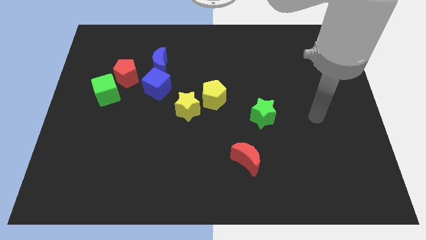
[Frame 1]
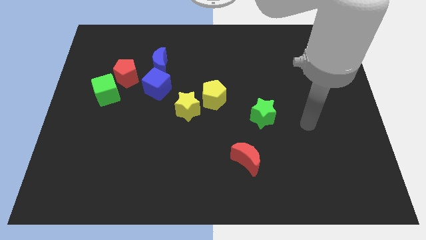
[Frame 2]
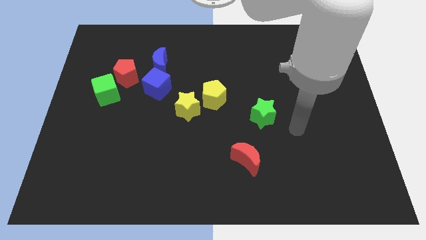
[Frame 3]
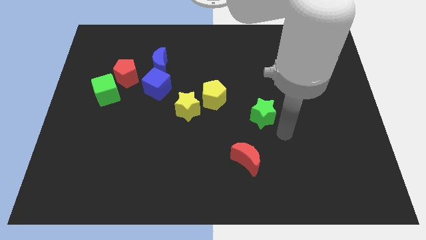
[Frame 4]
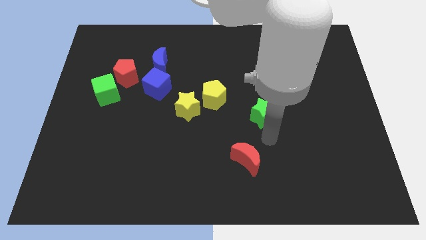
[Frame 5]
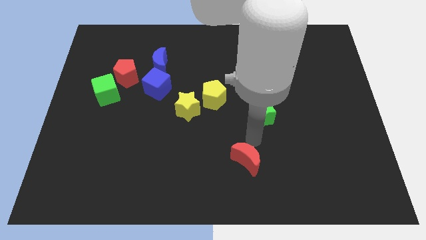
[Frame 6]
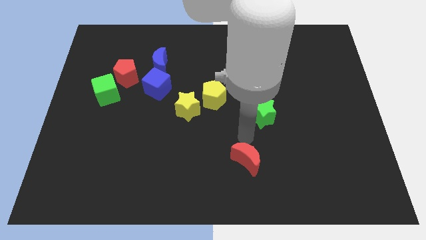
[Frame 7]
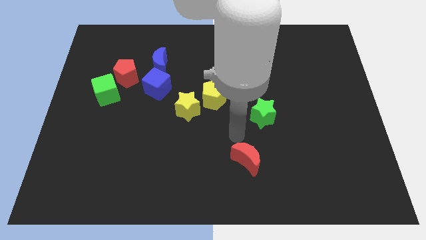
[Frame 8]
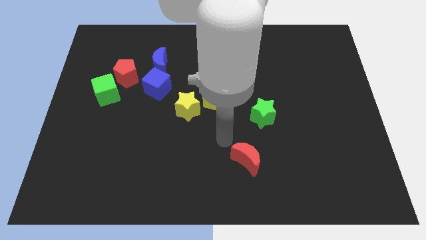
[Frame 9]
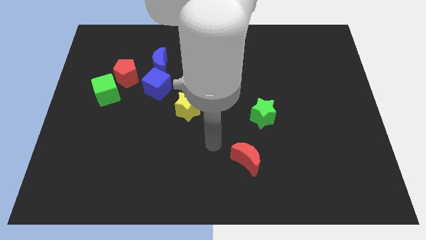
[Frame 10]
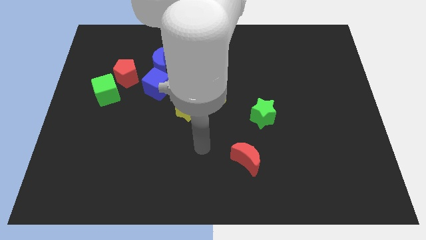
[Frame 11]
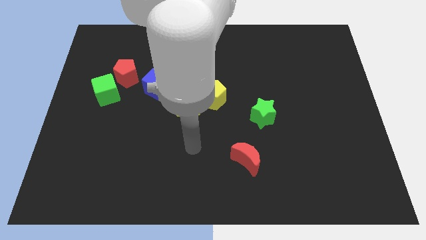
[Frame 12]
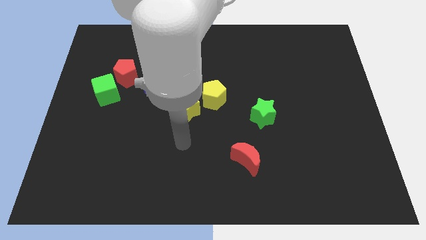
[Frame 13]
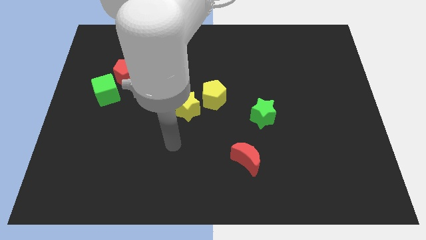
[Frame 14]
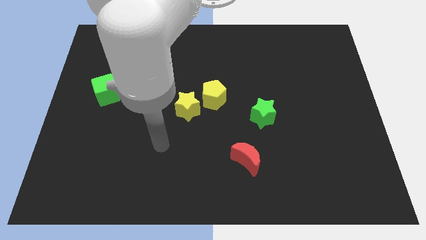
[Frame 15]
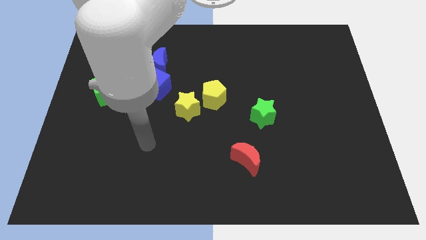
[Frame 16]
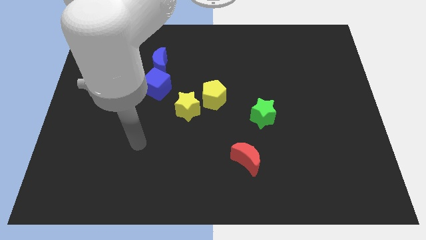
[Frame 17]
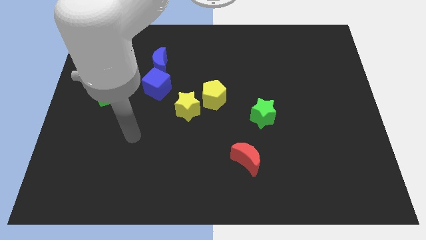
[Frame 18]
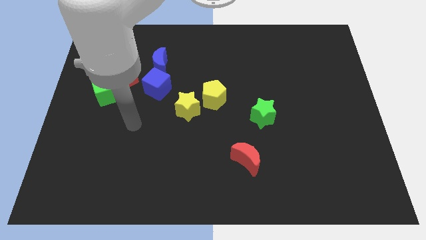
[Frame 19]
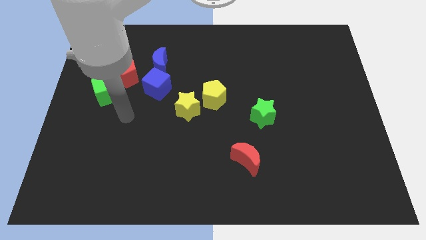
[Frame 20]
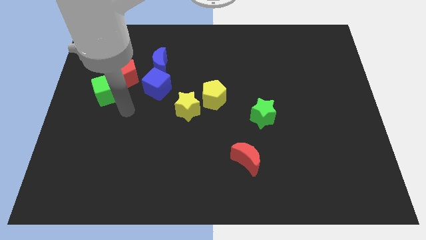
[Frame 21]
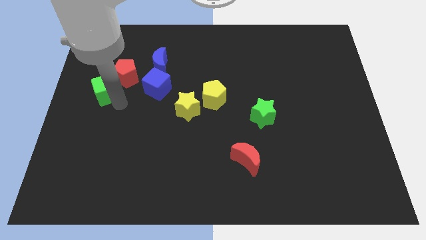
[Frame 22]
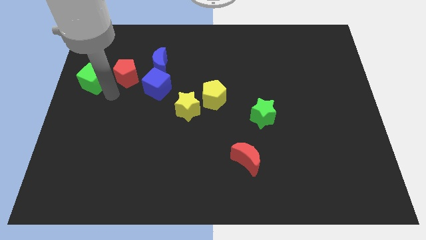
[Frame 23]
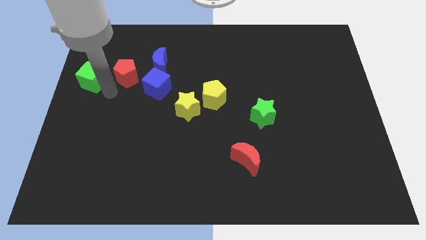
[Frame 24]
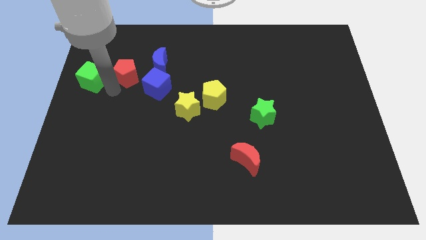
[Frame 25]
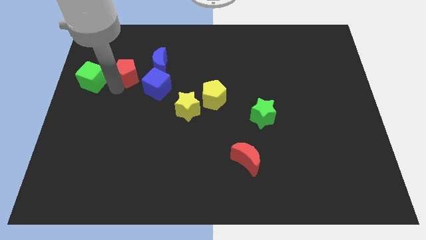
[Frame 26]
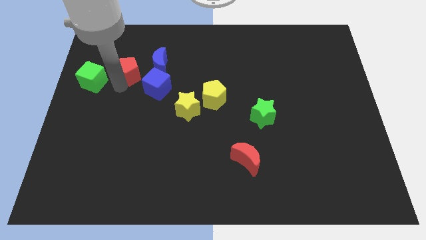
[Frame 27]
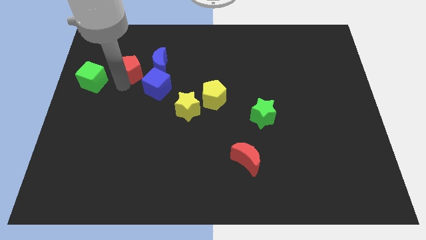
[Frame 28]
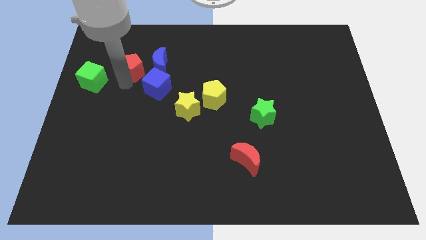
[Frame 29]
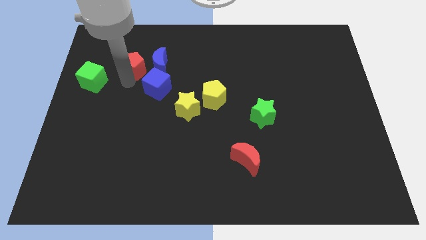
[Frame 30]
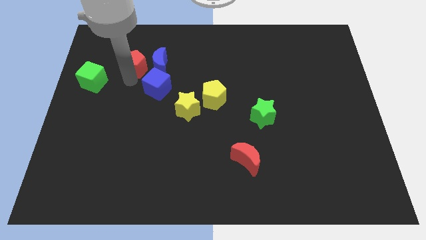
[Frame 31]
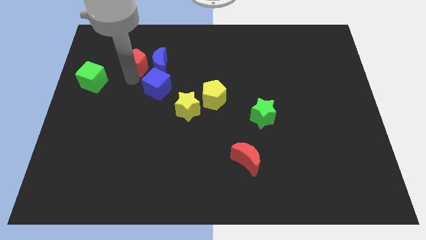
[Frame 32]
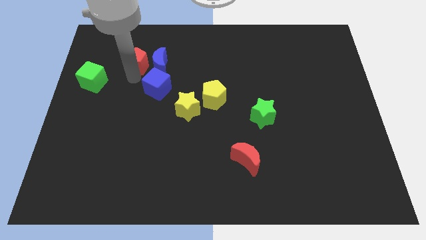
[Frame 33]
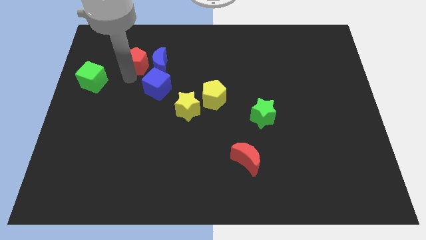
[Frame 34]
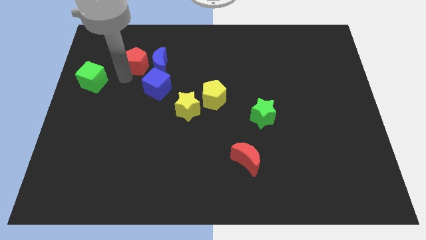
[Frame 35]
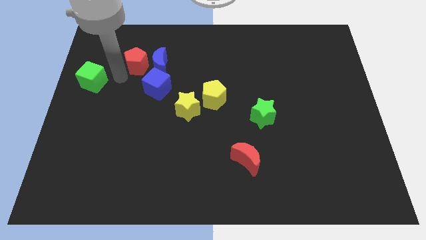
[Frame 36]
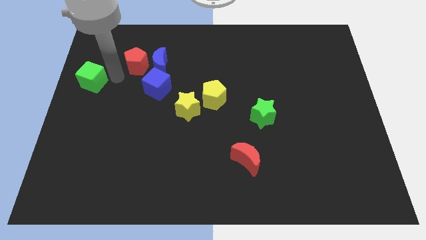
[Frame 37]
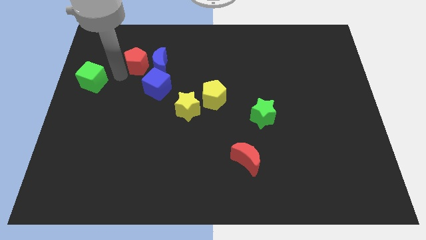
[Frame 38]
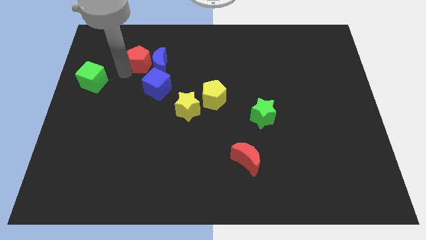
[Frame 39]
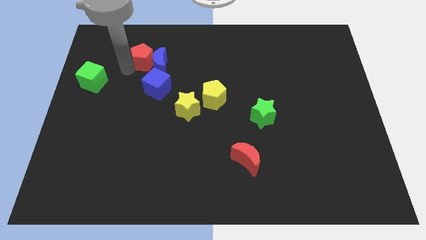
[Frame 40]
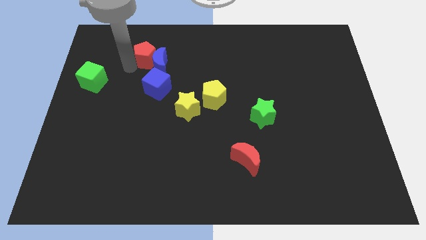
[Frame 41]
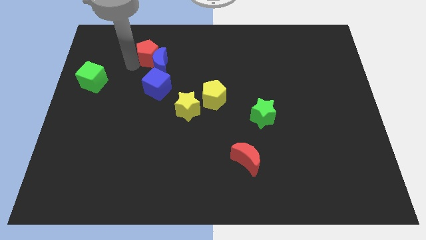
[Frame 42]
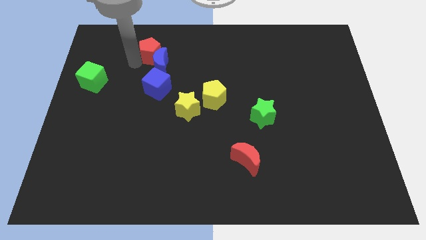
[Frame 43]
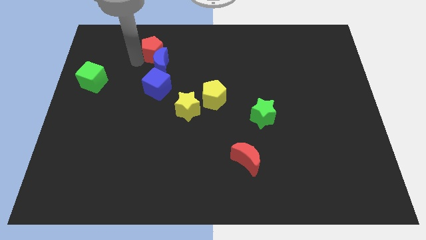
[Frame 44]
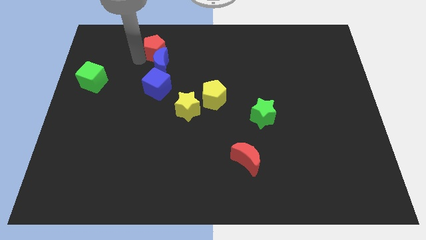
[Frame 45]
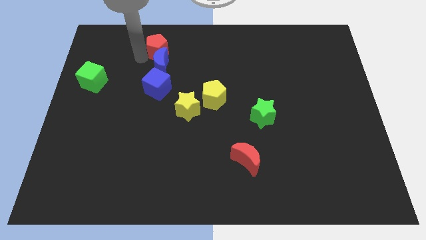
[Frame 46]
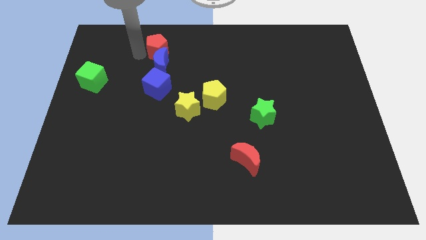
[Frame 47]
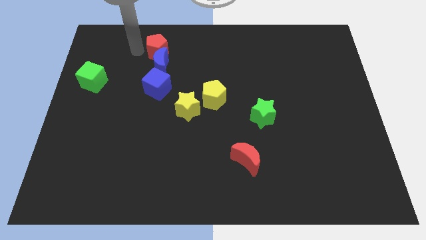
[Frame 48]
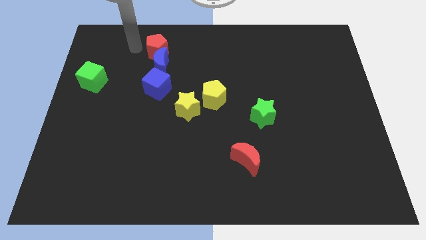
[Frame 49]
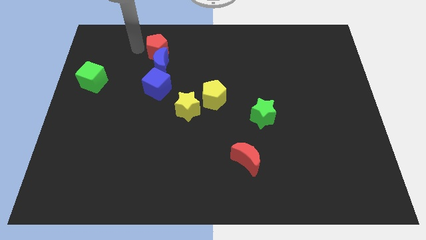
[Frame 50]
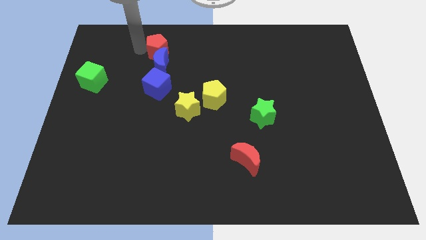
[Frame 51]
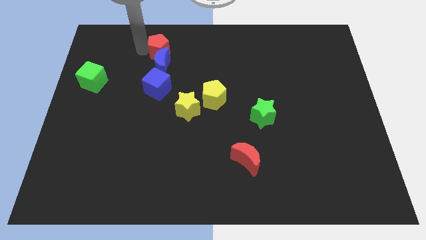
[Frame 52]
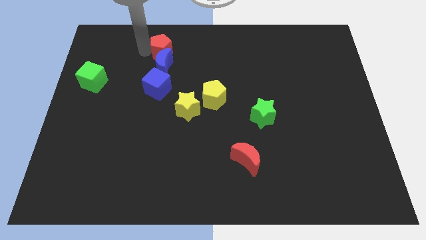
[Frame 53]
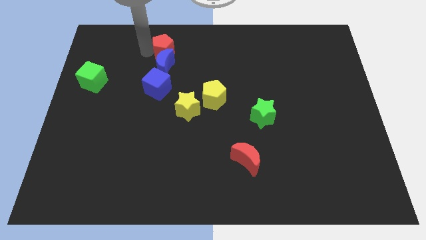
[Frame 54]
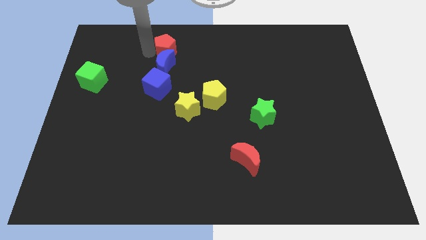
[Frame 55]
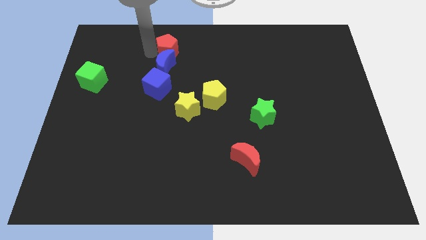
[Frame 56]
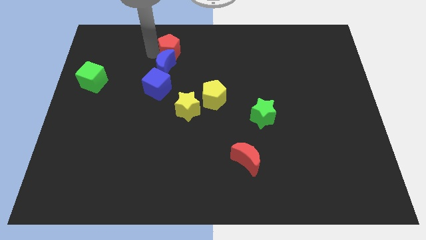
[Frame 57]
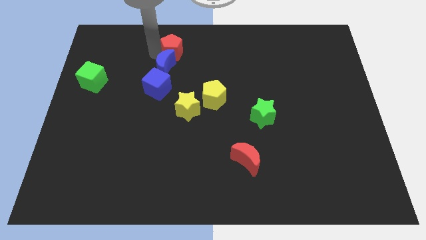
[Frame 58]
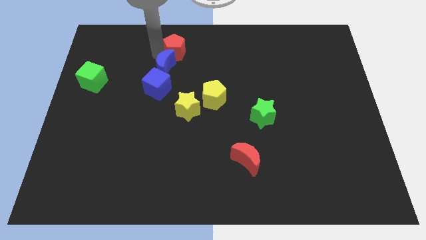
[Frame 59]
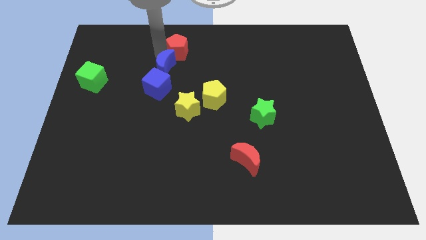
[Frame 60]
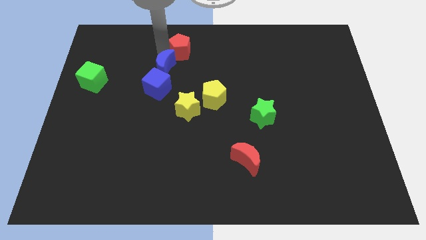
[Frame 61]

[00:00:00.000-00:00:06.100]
push the red pentagon to the top side
